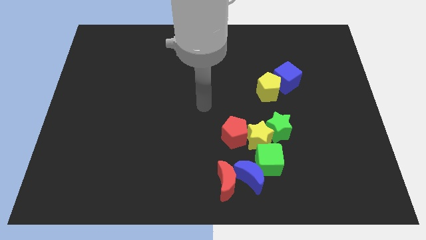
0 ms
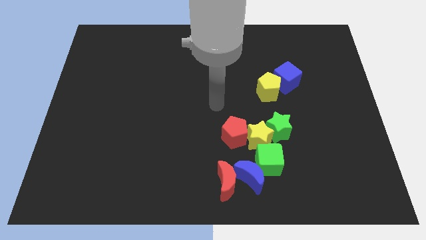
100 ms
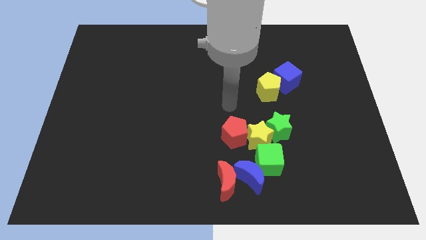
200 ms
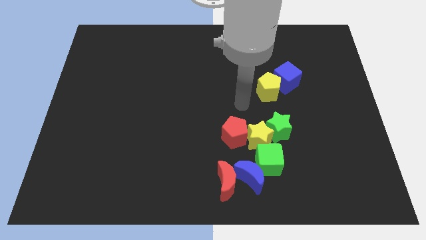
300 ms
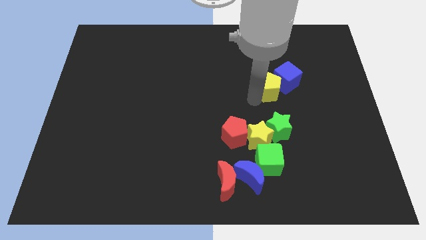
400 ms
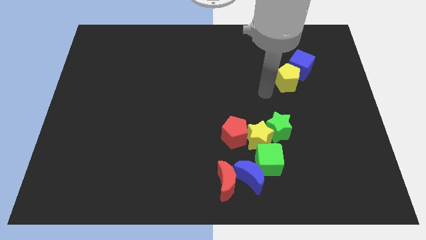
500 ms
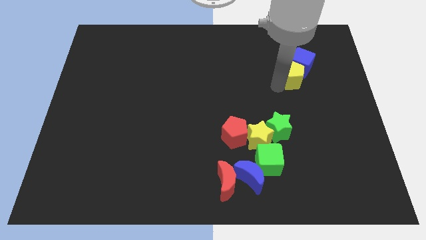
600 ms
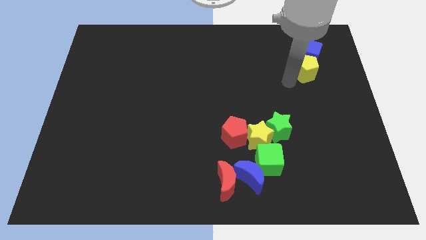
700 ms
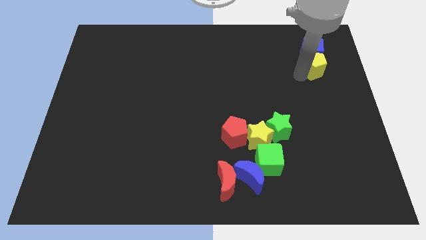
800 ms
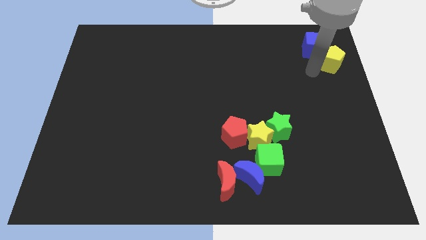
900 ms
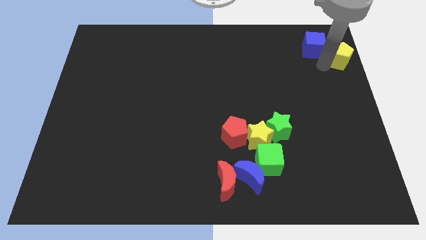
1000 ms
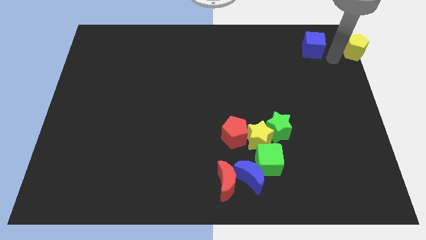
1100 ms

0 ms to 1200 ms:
separate the blue cube from the yellow pentagon

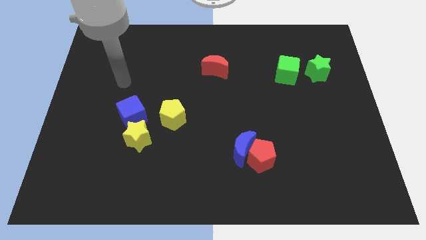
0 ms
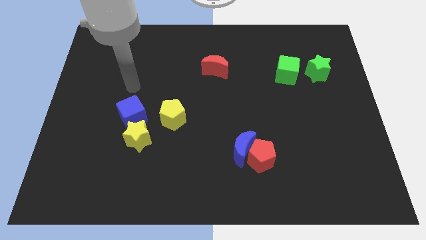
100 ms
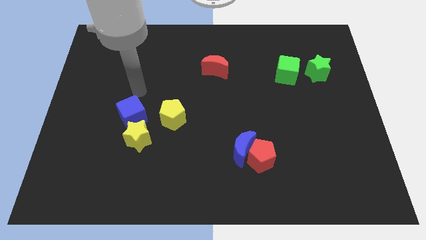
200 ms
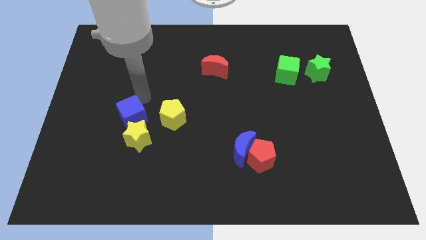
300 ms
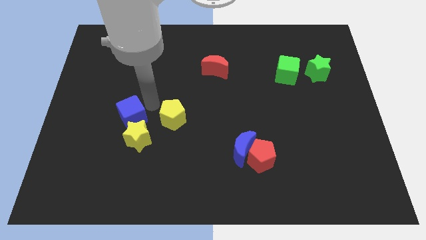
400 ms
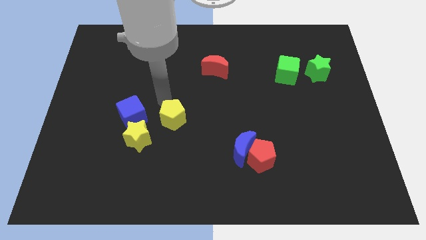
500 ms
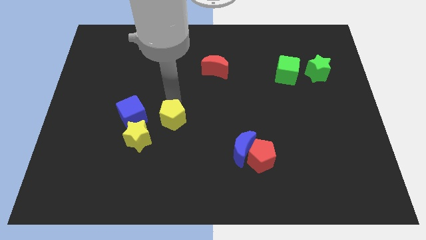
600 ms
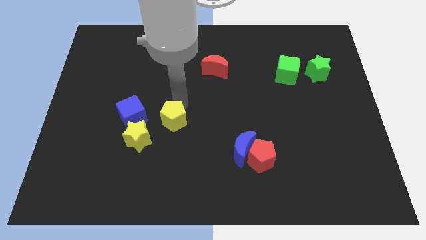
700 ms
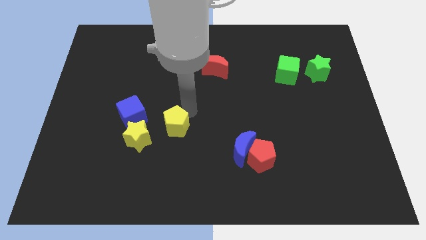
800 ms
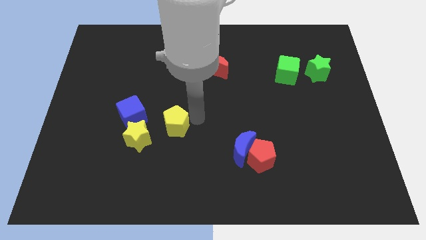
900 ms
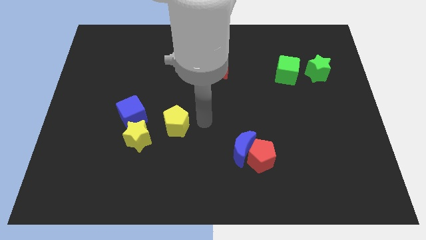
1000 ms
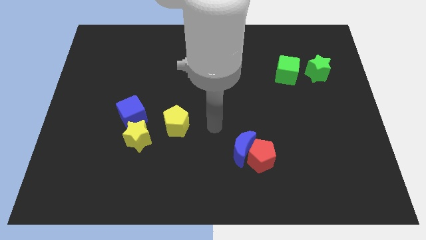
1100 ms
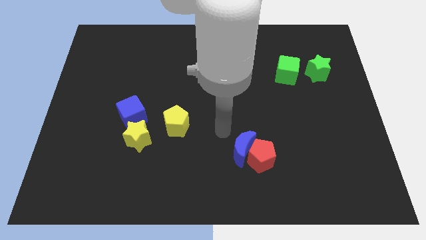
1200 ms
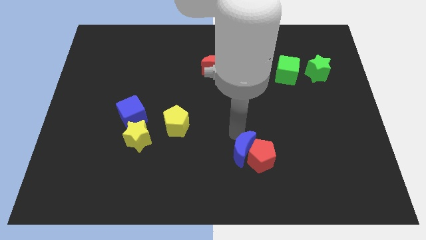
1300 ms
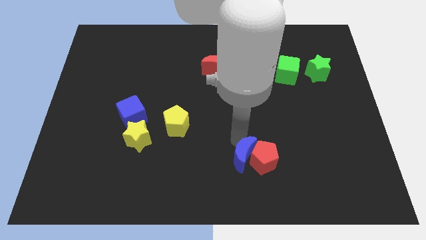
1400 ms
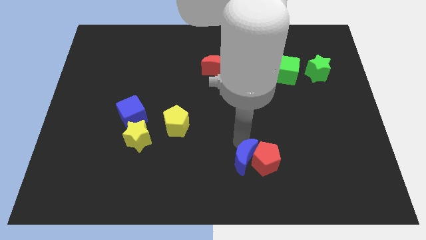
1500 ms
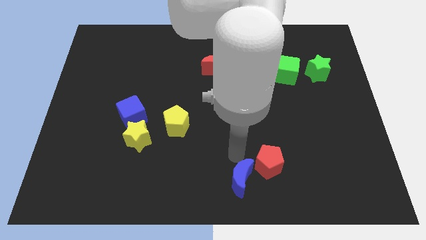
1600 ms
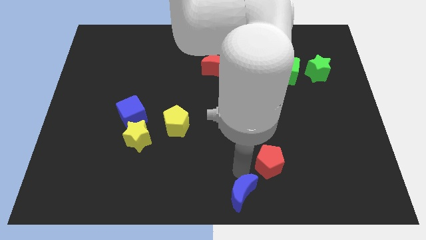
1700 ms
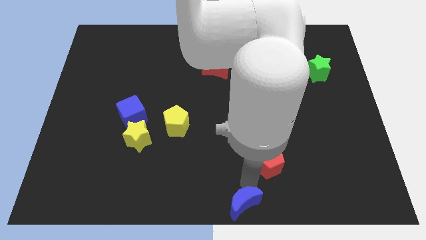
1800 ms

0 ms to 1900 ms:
move the red pentagon away from the blue moon

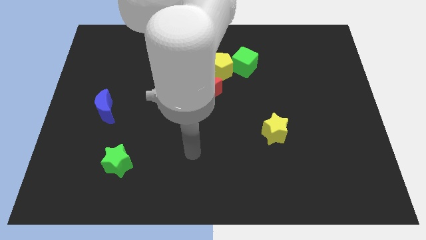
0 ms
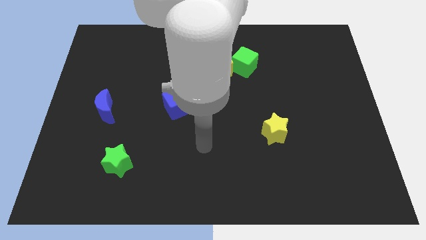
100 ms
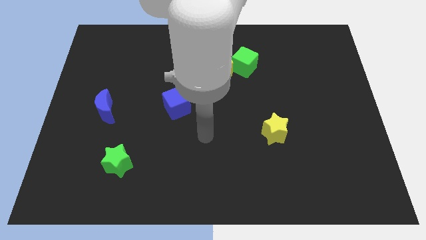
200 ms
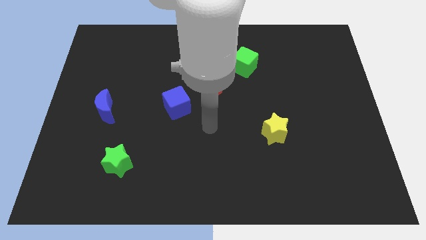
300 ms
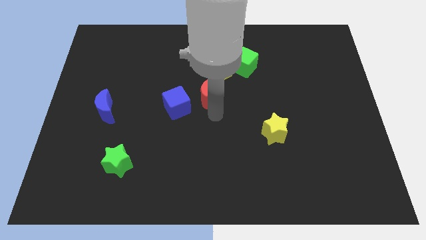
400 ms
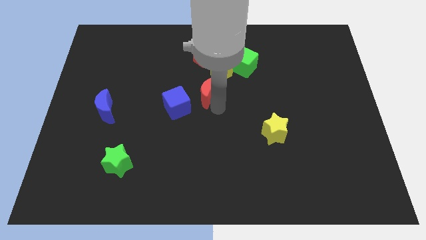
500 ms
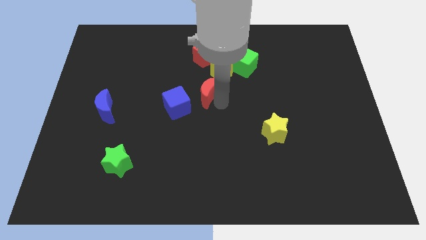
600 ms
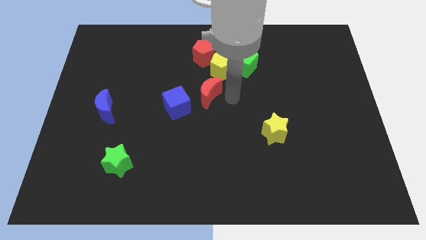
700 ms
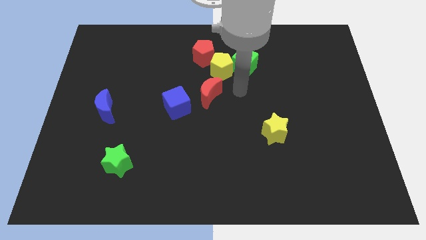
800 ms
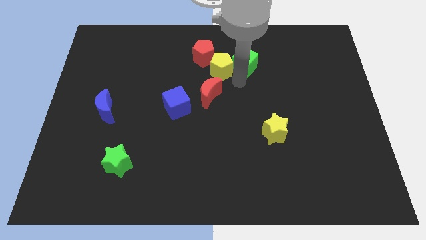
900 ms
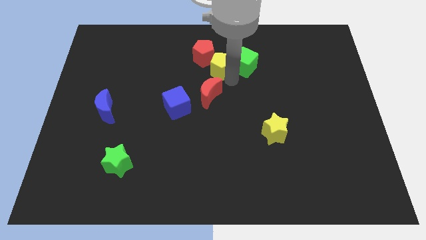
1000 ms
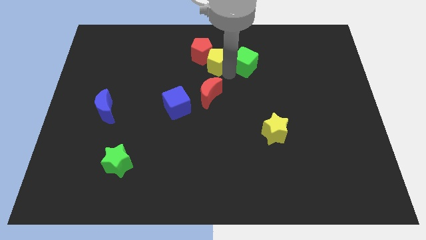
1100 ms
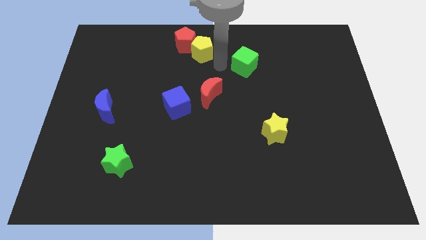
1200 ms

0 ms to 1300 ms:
move the green cube away from the yellow pentagon

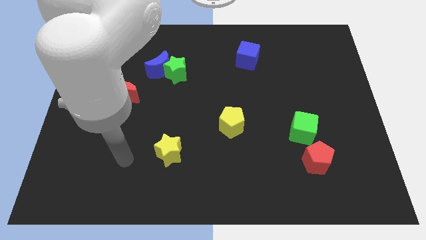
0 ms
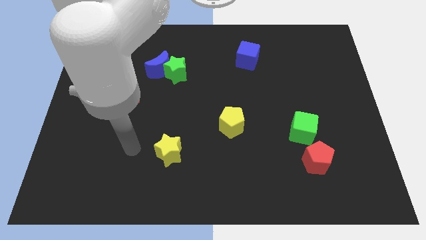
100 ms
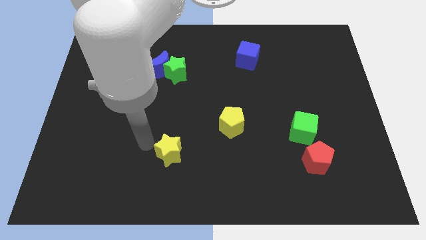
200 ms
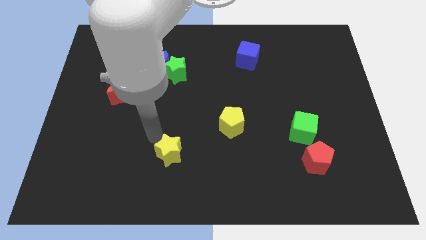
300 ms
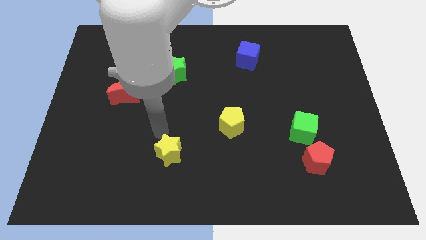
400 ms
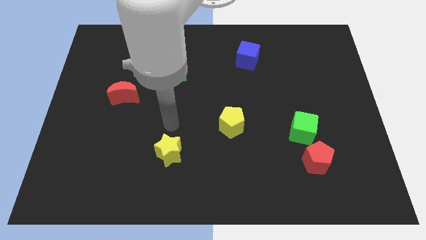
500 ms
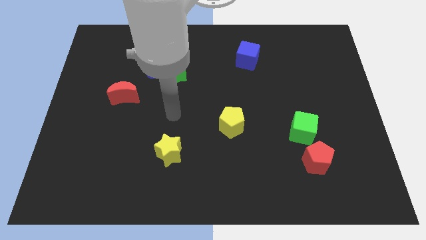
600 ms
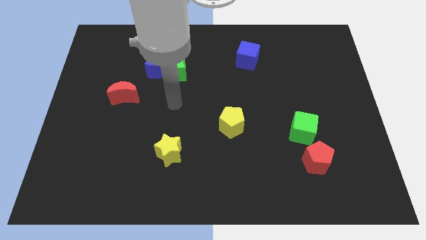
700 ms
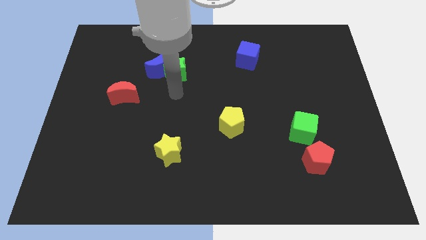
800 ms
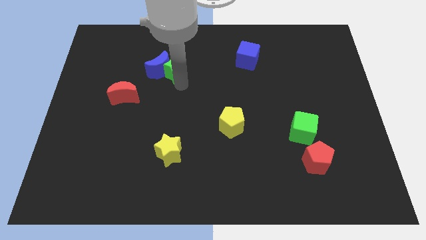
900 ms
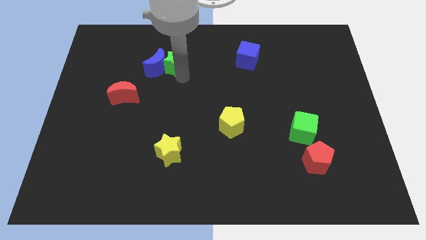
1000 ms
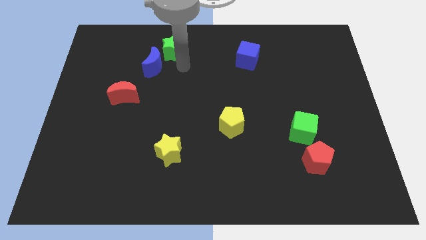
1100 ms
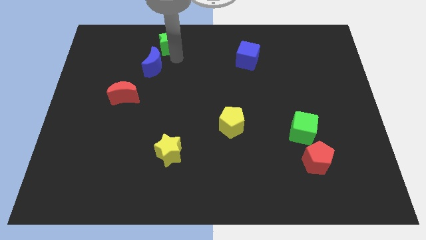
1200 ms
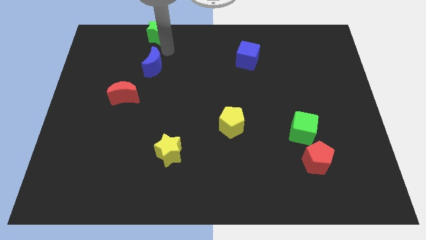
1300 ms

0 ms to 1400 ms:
pull the blue moon apart from the green star

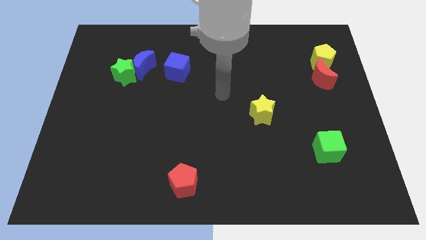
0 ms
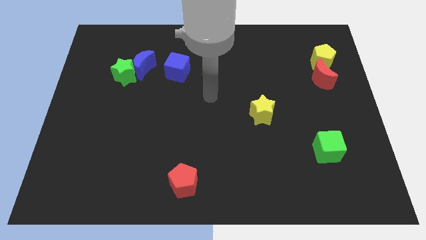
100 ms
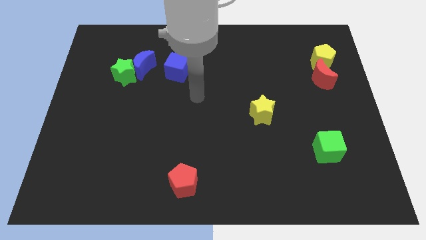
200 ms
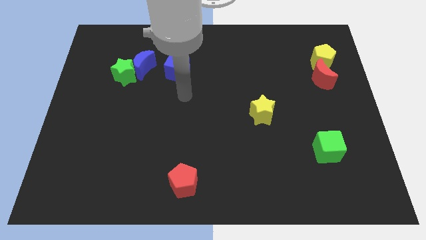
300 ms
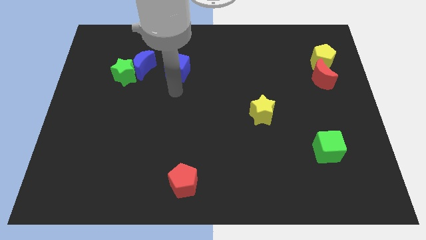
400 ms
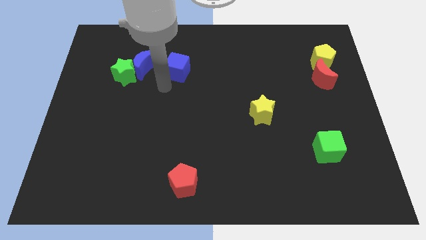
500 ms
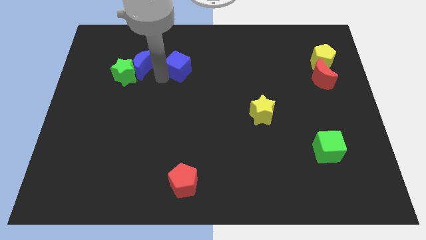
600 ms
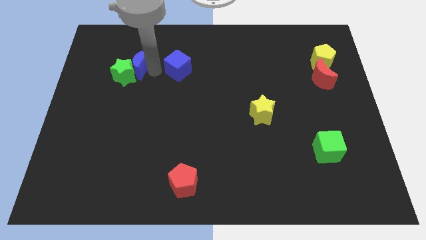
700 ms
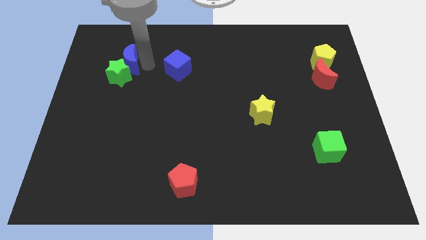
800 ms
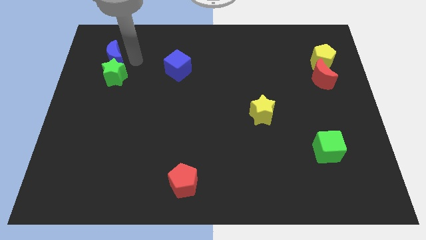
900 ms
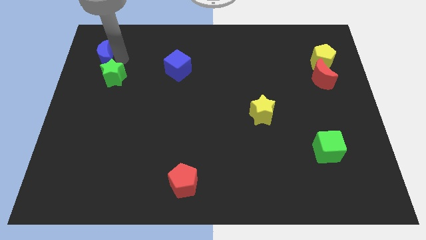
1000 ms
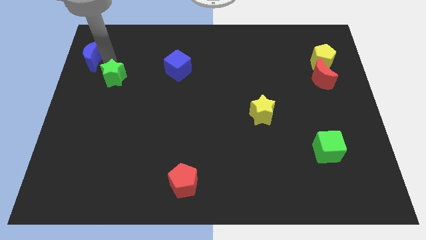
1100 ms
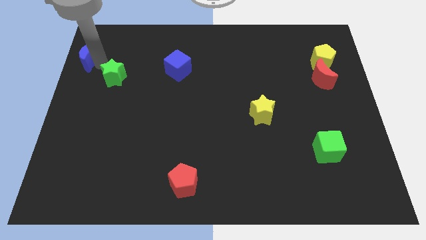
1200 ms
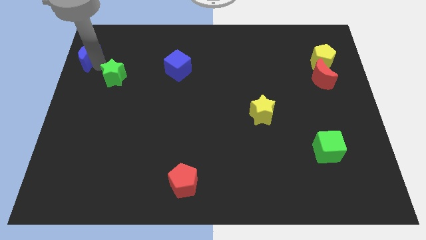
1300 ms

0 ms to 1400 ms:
pull the green star apart from the blue moon

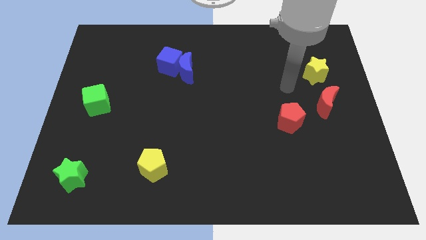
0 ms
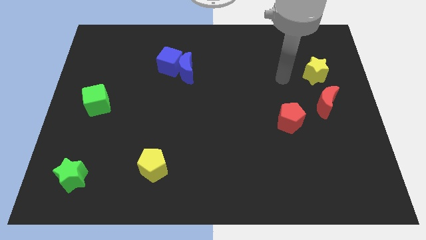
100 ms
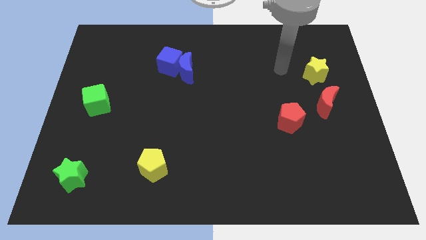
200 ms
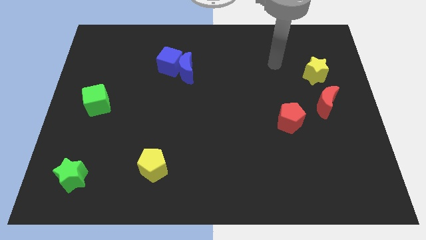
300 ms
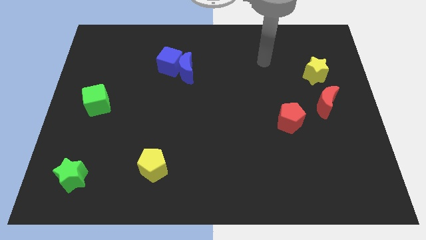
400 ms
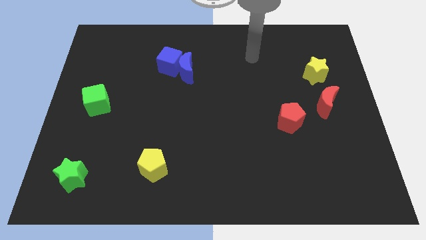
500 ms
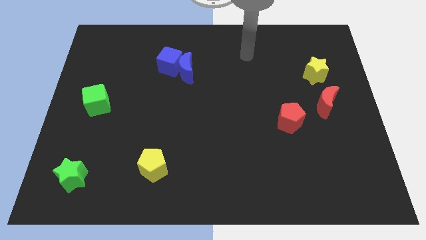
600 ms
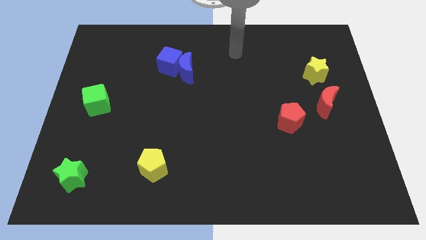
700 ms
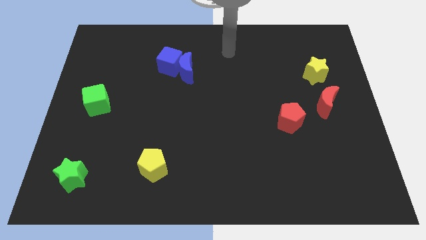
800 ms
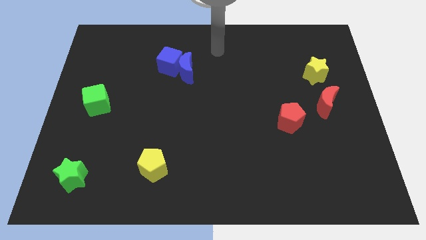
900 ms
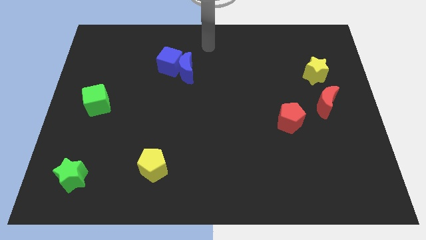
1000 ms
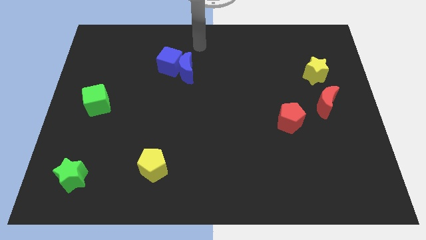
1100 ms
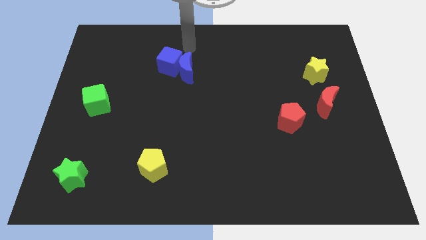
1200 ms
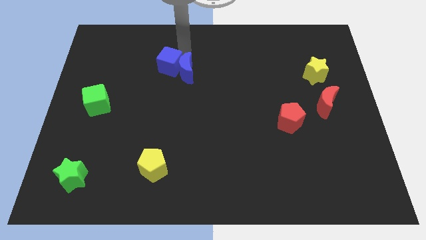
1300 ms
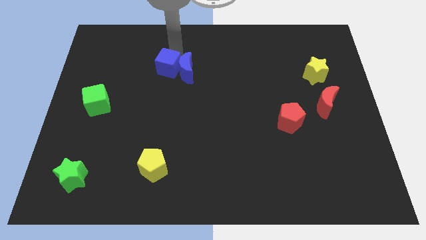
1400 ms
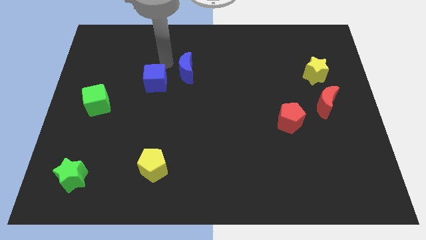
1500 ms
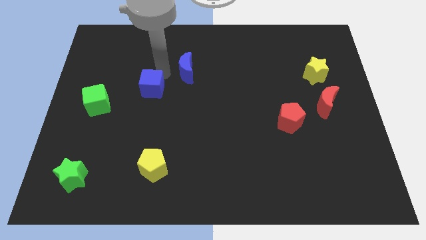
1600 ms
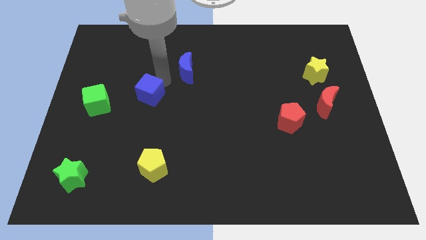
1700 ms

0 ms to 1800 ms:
separate the blue moon from the blue cube

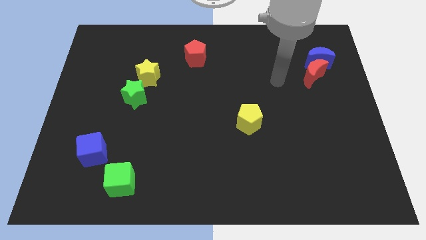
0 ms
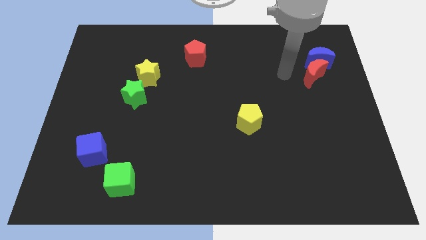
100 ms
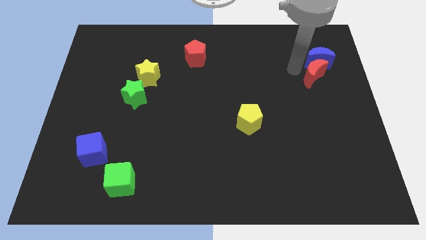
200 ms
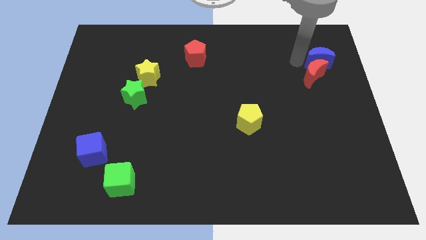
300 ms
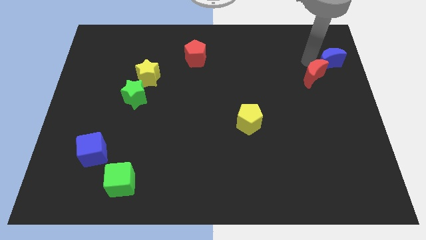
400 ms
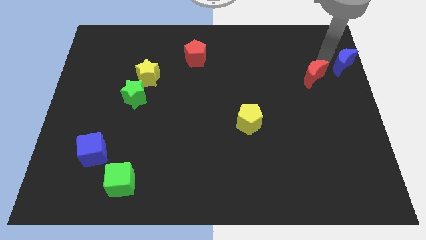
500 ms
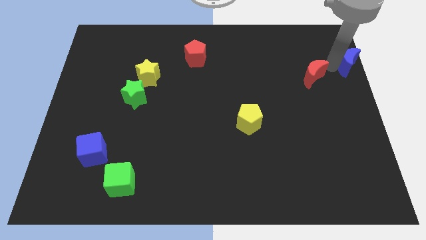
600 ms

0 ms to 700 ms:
move the red moon away from the blue moon
